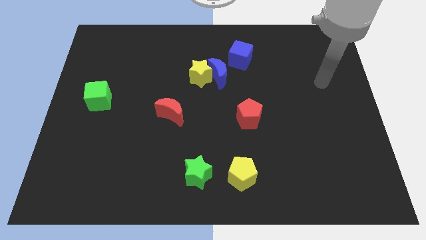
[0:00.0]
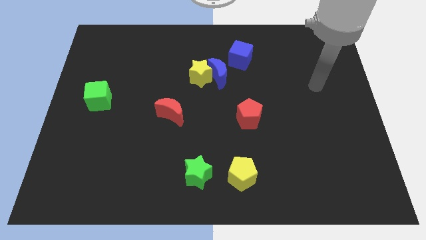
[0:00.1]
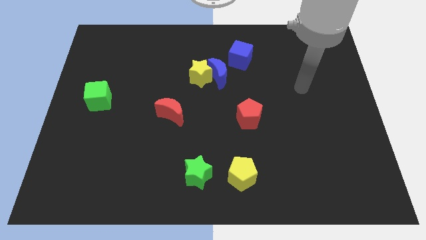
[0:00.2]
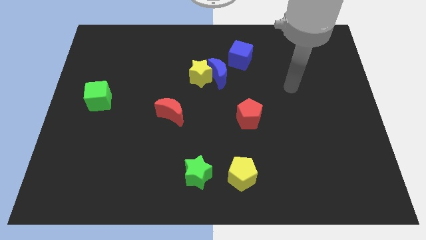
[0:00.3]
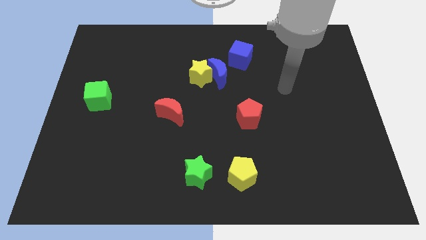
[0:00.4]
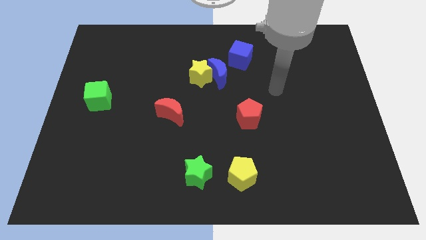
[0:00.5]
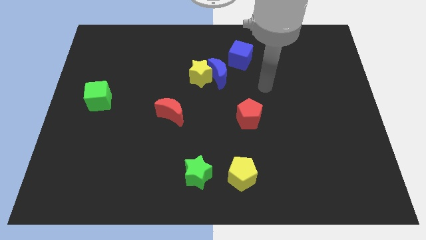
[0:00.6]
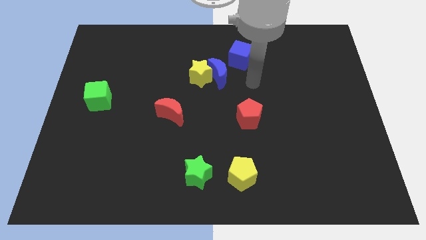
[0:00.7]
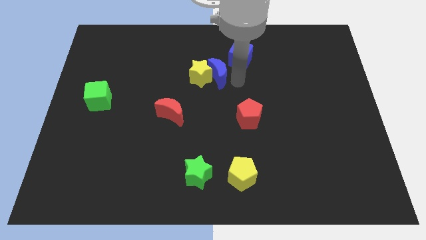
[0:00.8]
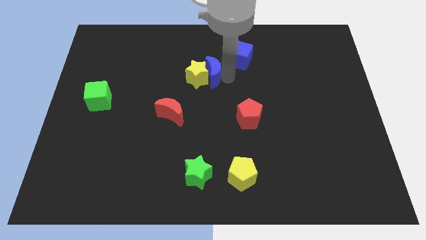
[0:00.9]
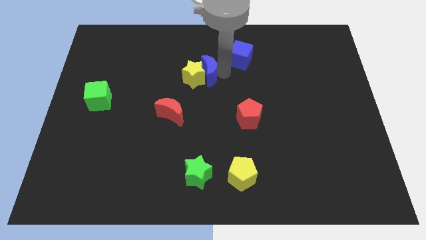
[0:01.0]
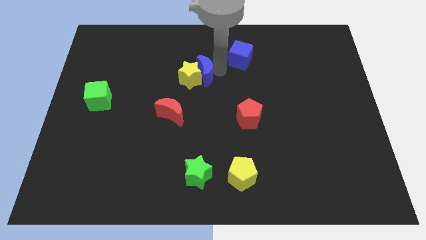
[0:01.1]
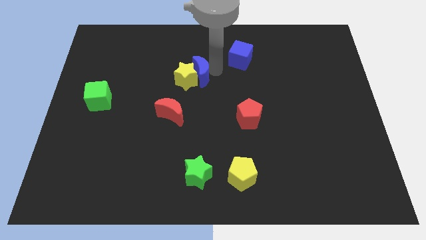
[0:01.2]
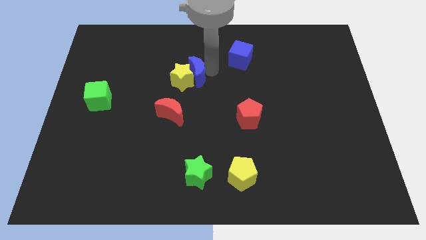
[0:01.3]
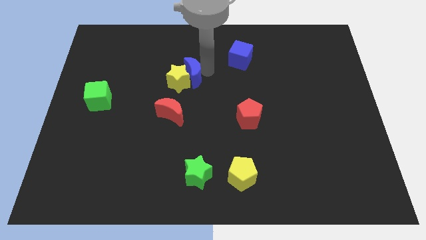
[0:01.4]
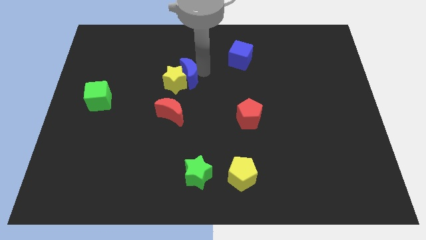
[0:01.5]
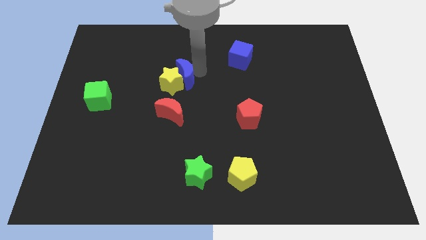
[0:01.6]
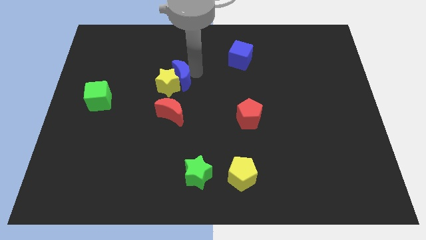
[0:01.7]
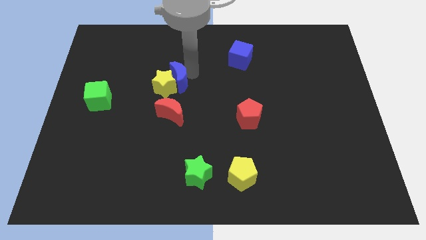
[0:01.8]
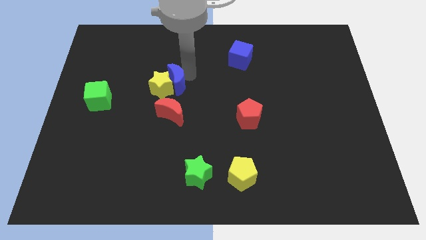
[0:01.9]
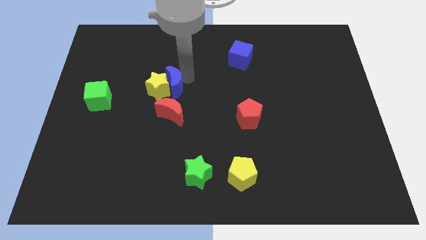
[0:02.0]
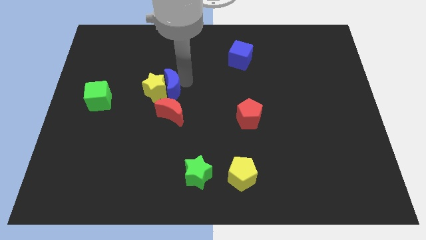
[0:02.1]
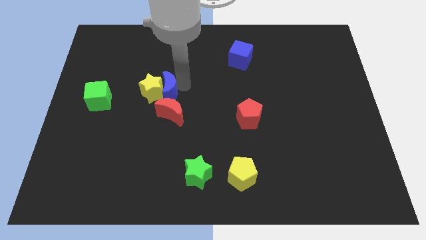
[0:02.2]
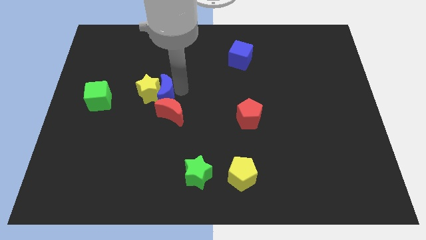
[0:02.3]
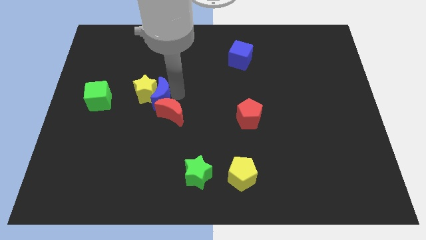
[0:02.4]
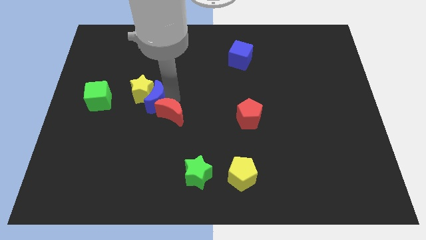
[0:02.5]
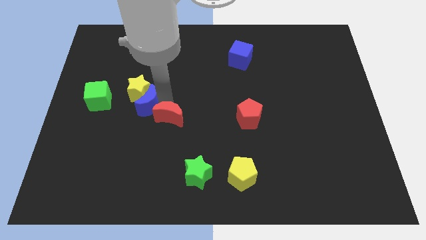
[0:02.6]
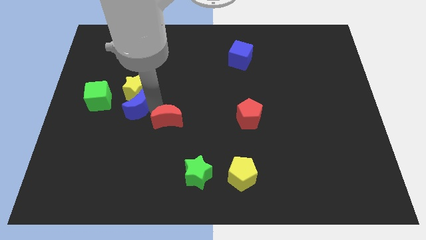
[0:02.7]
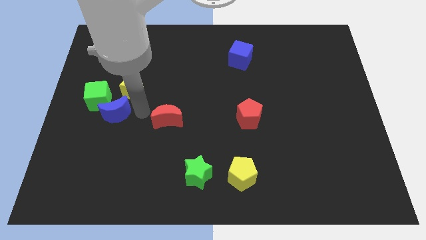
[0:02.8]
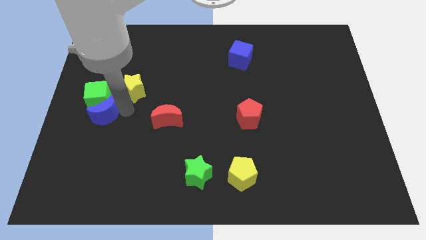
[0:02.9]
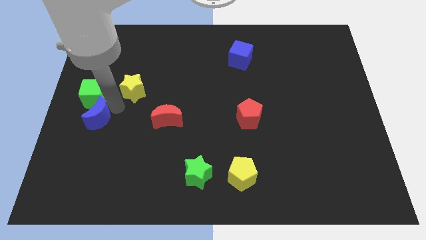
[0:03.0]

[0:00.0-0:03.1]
move the yellow star away from the blue moon

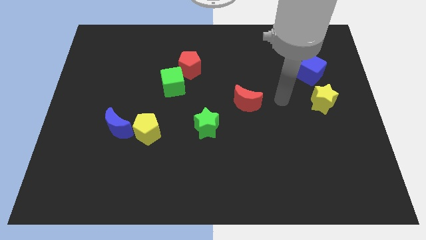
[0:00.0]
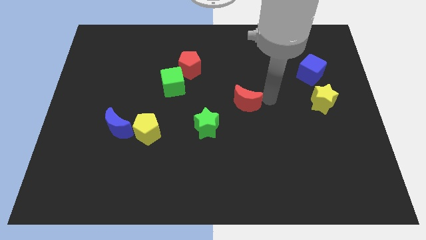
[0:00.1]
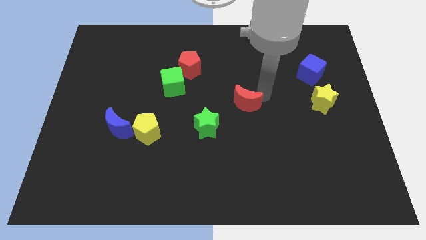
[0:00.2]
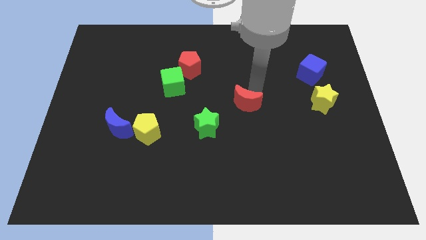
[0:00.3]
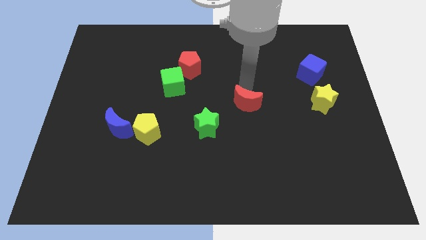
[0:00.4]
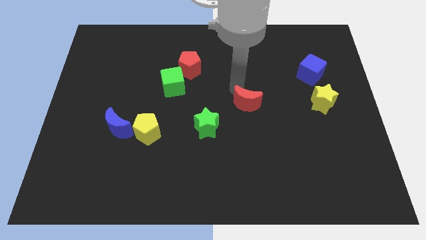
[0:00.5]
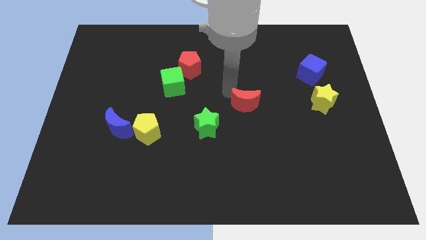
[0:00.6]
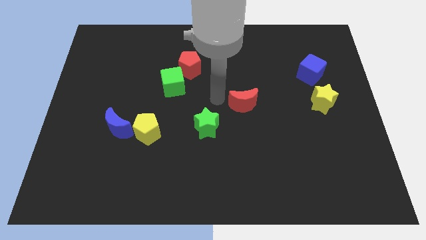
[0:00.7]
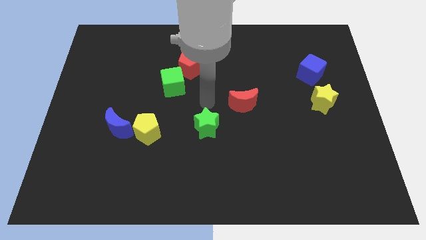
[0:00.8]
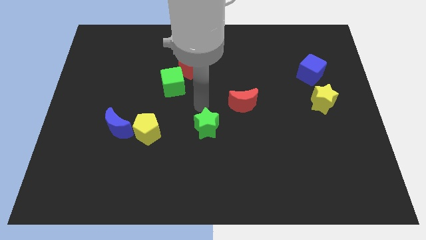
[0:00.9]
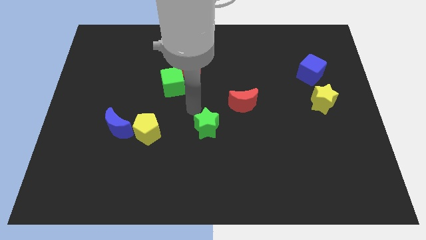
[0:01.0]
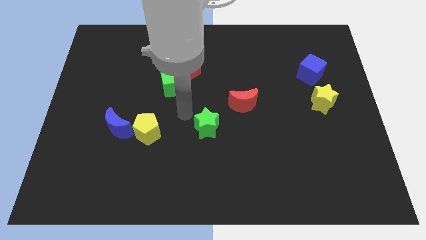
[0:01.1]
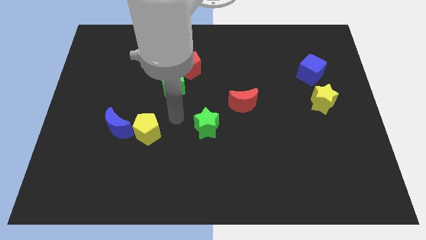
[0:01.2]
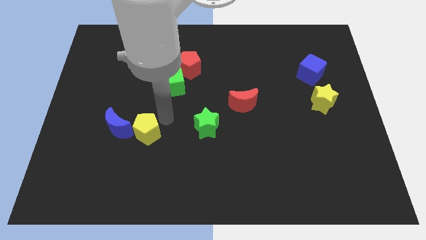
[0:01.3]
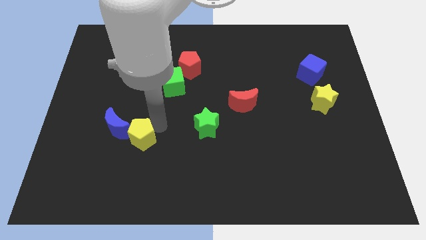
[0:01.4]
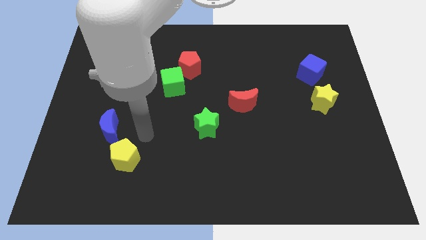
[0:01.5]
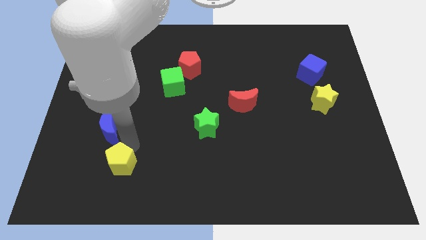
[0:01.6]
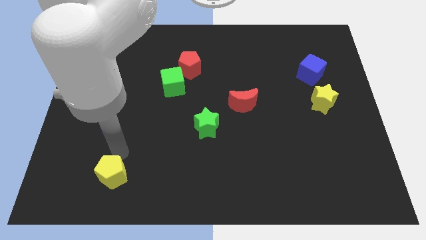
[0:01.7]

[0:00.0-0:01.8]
pull the blue moon apart from the yellow pentagon

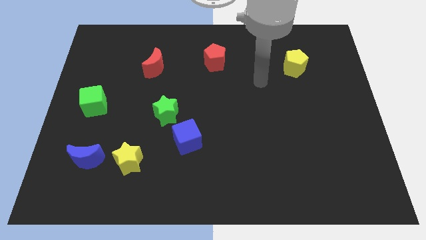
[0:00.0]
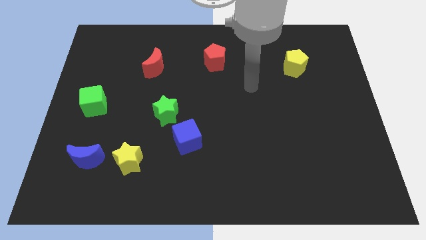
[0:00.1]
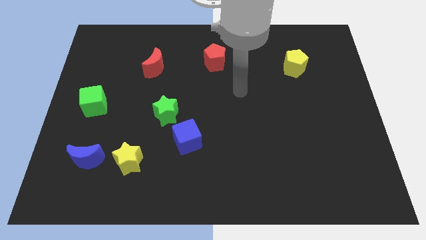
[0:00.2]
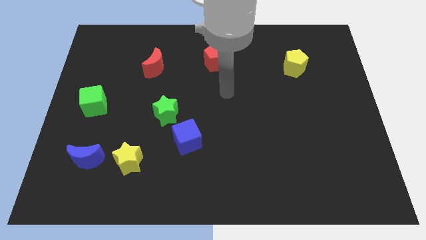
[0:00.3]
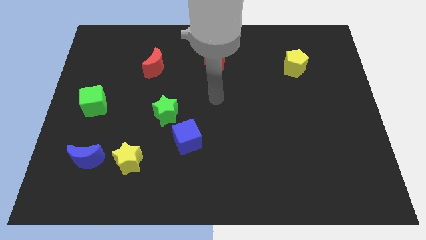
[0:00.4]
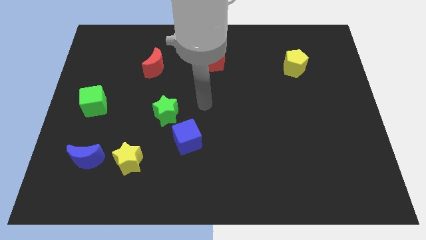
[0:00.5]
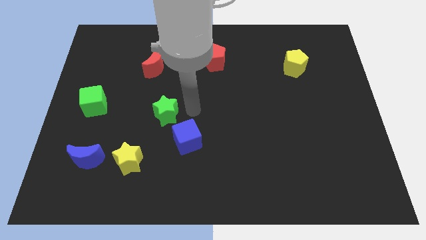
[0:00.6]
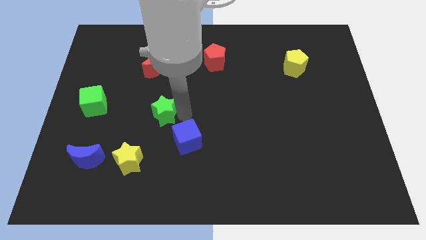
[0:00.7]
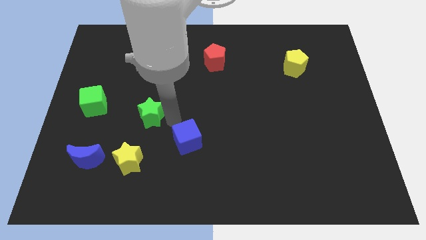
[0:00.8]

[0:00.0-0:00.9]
pull the blue cube apart from the green star

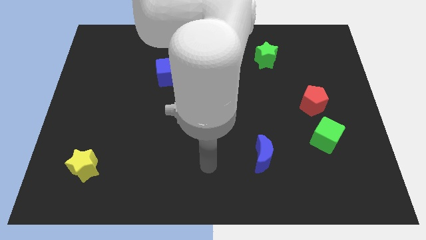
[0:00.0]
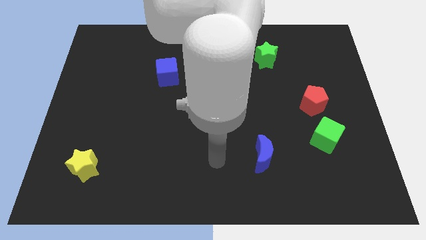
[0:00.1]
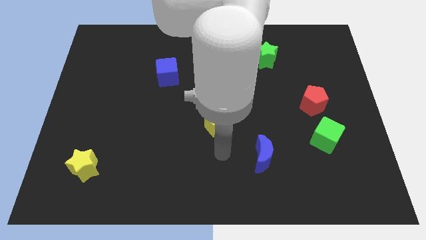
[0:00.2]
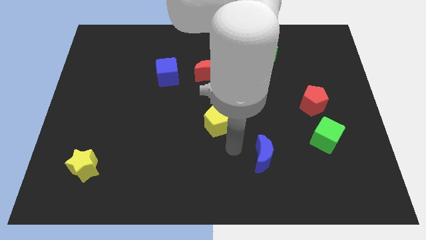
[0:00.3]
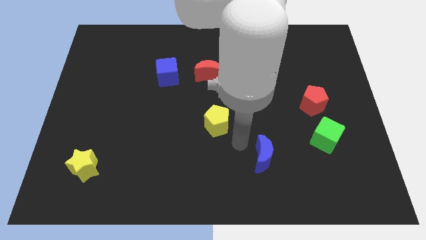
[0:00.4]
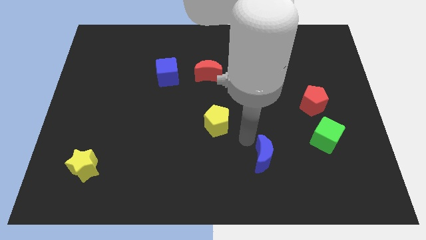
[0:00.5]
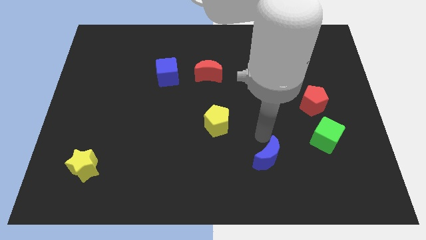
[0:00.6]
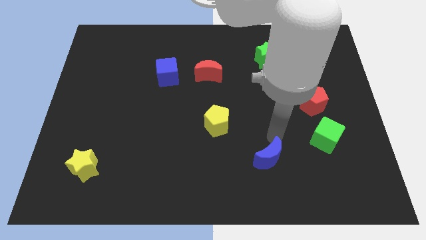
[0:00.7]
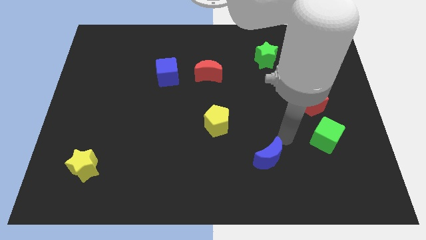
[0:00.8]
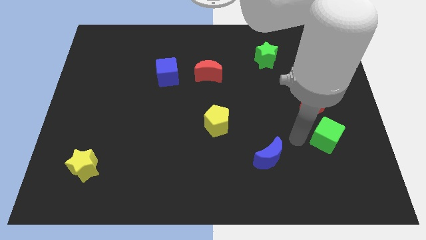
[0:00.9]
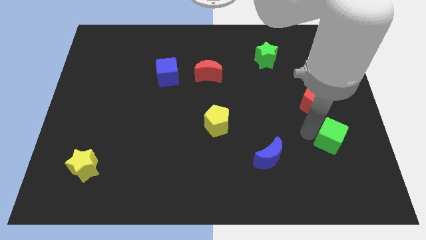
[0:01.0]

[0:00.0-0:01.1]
move the red pentagon away from the green cube

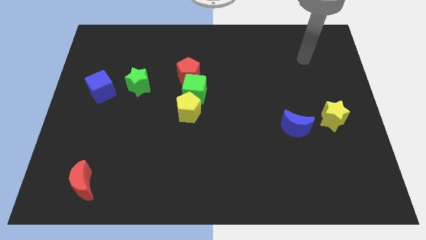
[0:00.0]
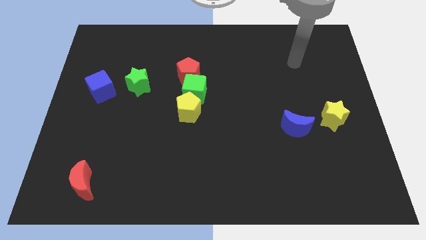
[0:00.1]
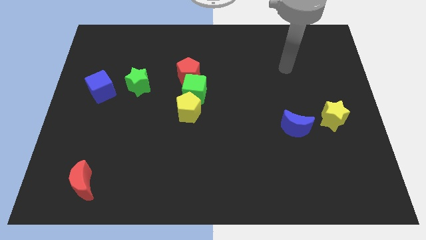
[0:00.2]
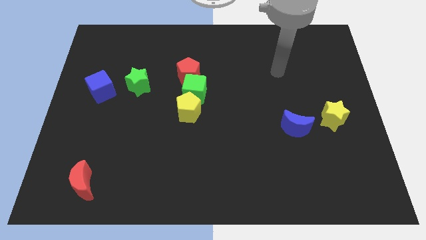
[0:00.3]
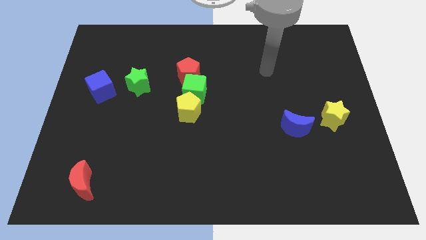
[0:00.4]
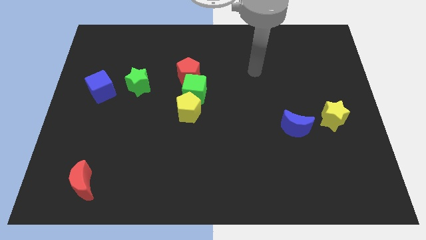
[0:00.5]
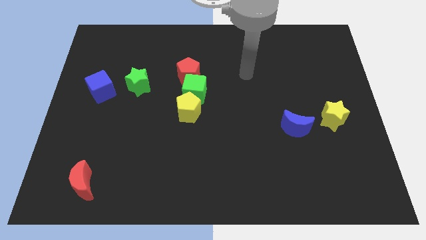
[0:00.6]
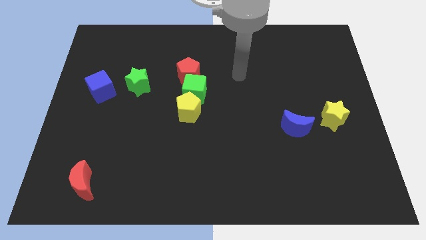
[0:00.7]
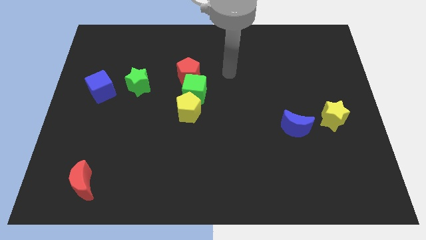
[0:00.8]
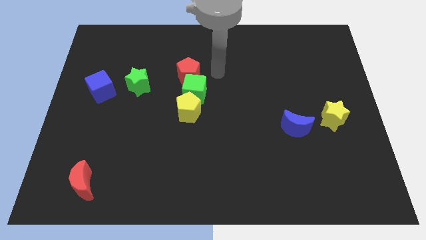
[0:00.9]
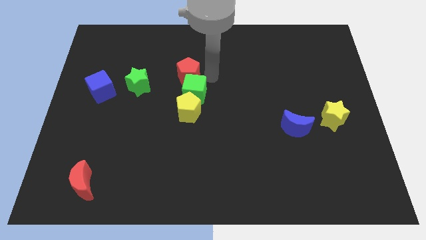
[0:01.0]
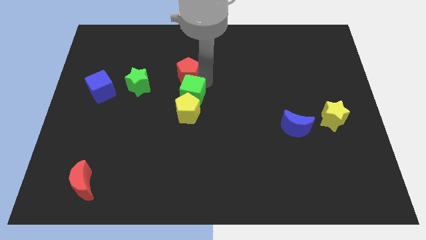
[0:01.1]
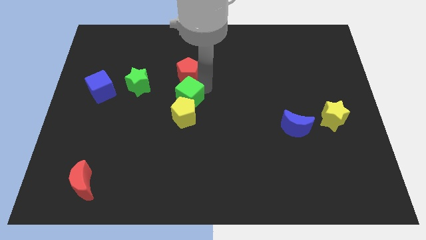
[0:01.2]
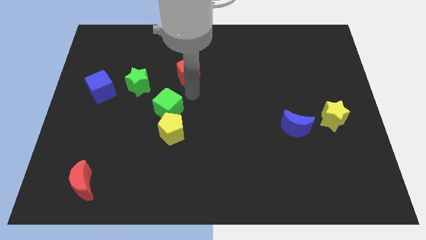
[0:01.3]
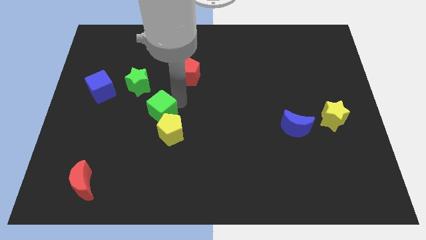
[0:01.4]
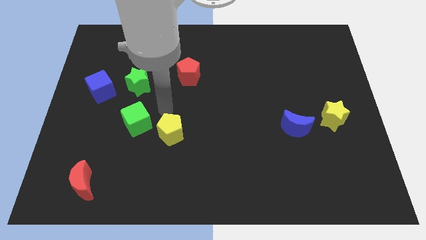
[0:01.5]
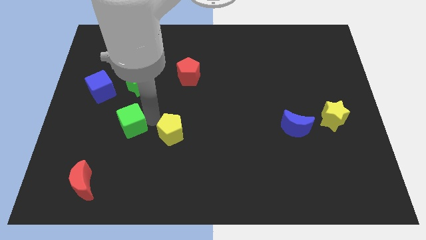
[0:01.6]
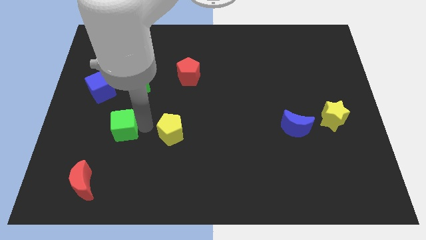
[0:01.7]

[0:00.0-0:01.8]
move the yellow pentagon away from the green cube

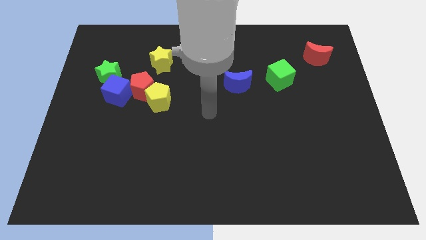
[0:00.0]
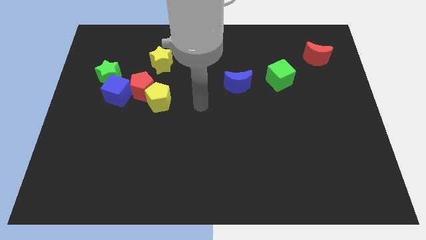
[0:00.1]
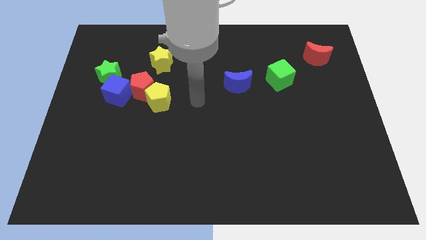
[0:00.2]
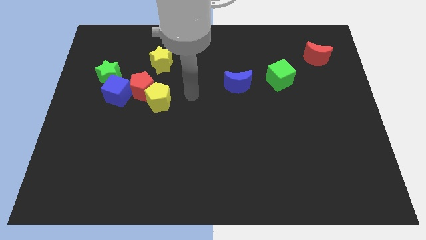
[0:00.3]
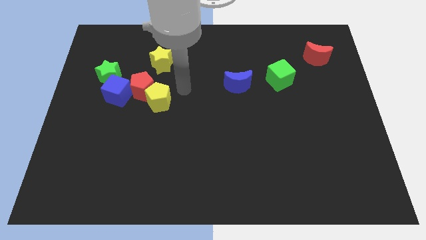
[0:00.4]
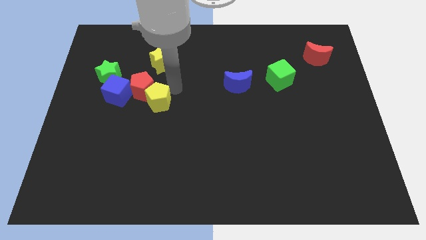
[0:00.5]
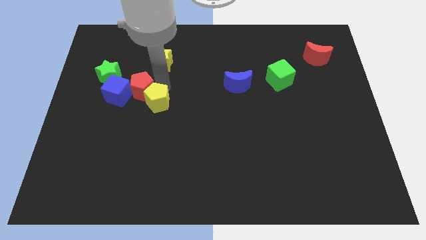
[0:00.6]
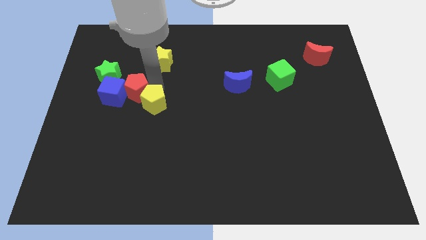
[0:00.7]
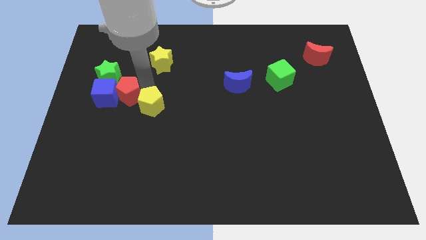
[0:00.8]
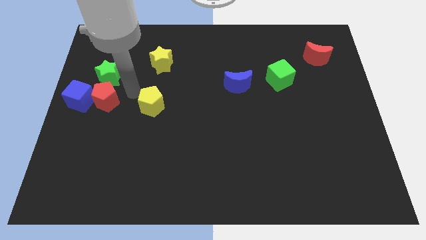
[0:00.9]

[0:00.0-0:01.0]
pull the yellow pentagon apart from the red pentagon
